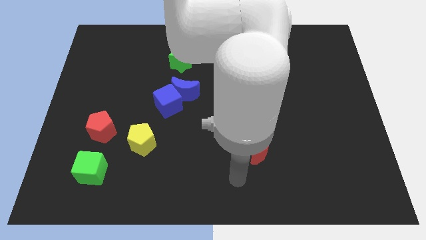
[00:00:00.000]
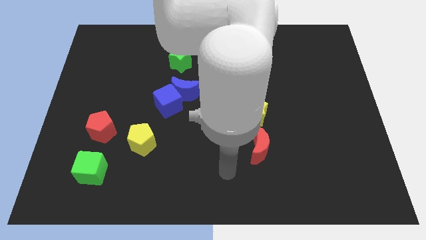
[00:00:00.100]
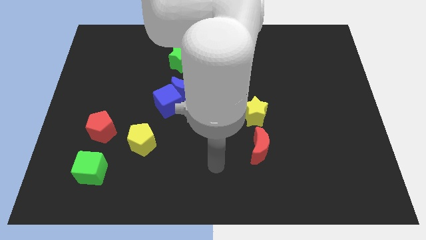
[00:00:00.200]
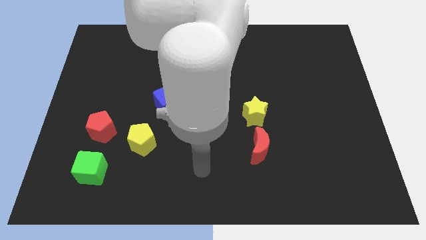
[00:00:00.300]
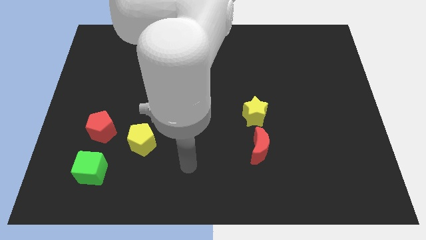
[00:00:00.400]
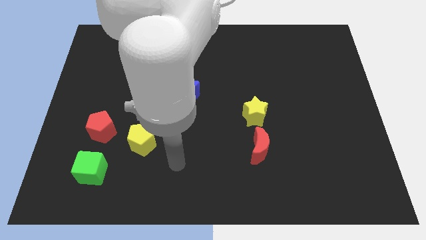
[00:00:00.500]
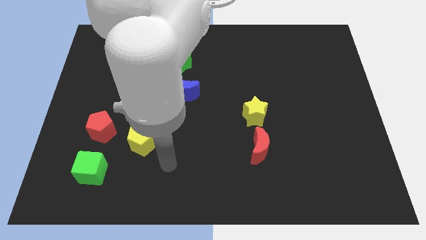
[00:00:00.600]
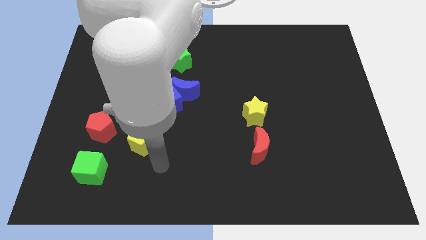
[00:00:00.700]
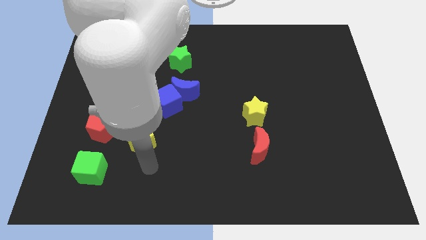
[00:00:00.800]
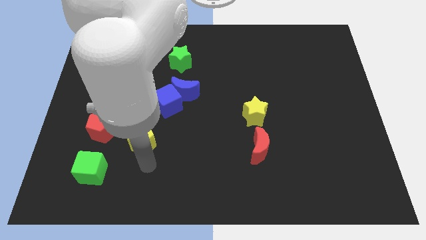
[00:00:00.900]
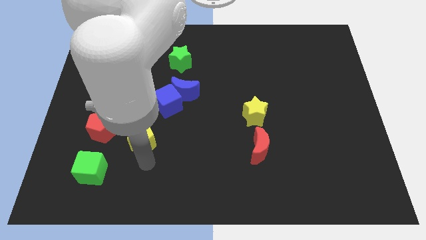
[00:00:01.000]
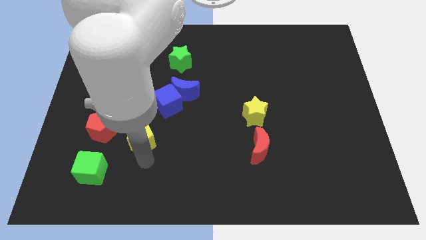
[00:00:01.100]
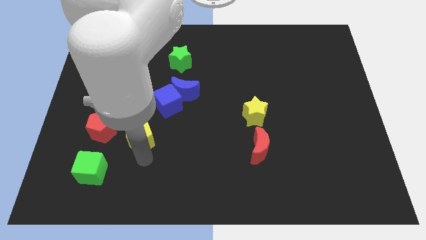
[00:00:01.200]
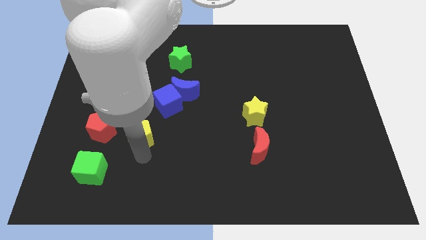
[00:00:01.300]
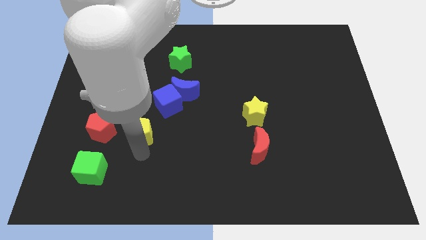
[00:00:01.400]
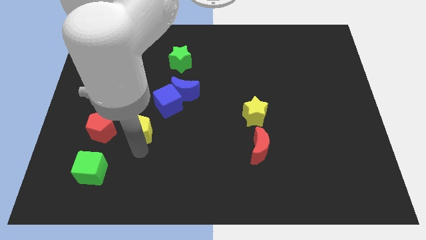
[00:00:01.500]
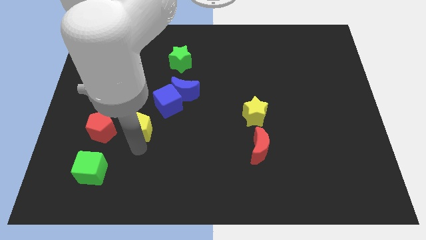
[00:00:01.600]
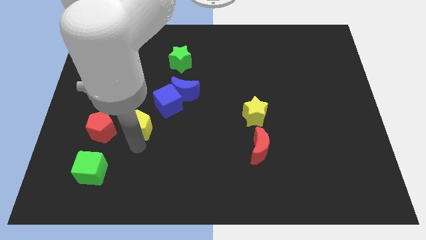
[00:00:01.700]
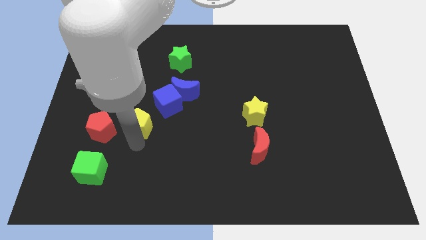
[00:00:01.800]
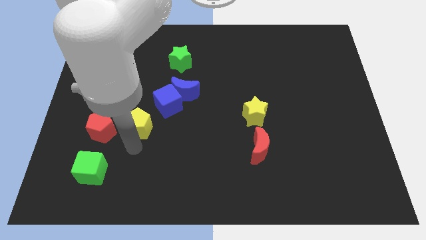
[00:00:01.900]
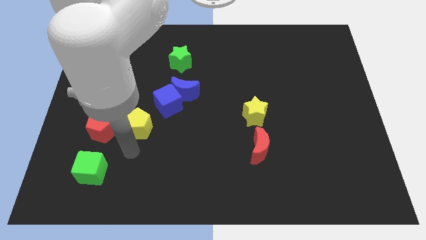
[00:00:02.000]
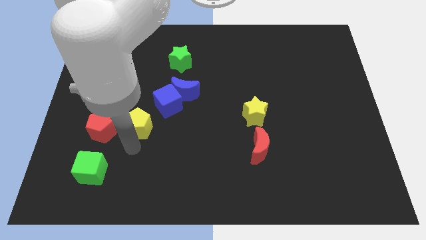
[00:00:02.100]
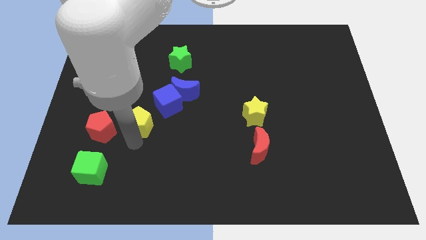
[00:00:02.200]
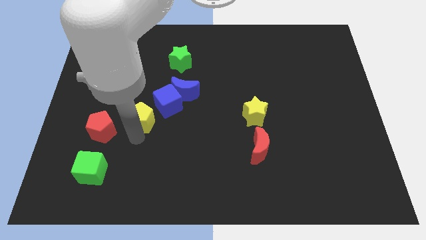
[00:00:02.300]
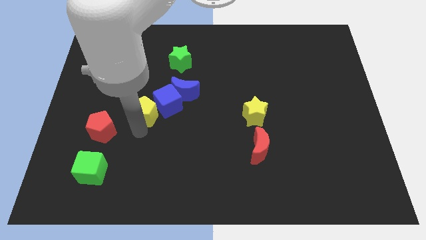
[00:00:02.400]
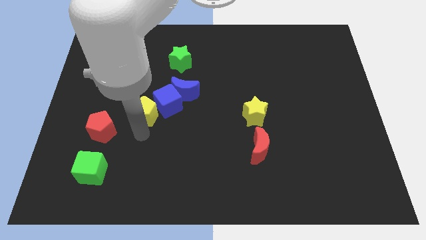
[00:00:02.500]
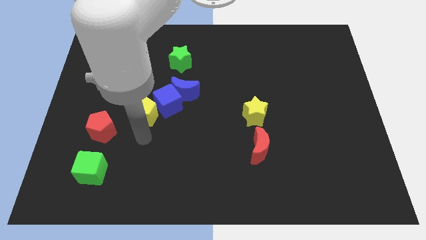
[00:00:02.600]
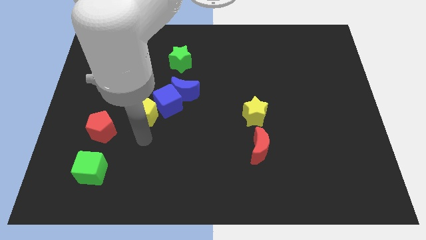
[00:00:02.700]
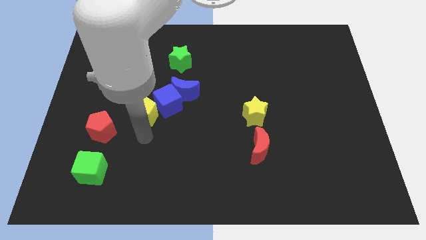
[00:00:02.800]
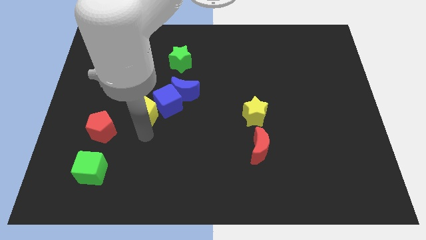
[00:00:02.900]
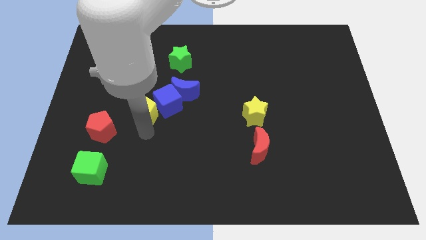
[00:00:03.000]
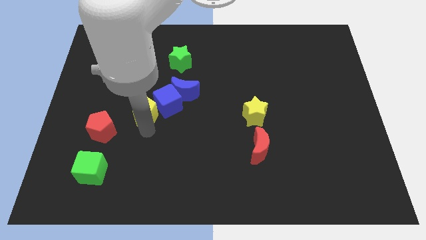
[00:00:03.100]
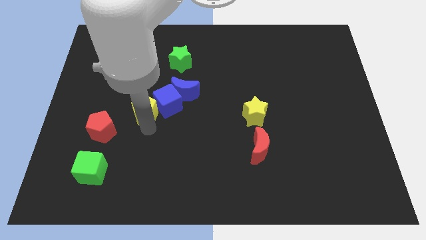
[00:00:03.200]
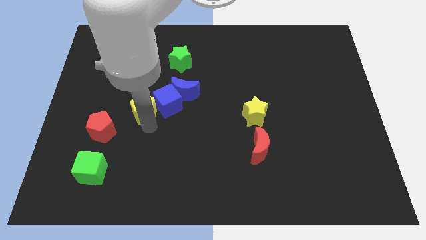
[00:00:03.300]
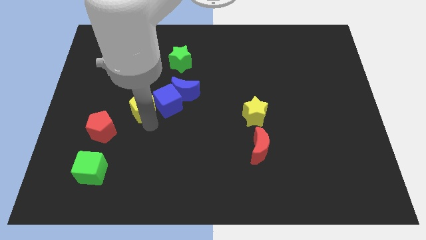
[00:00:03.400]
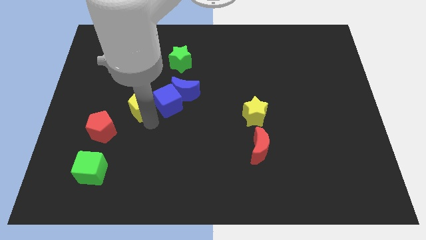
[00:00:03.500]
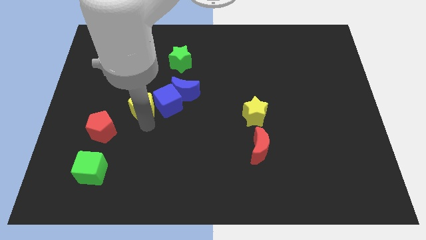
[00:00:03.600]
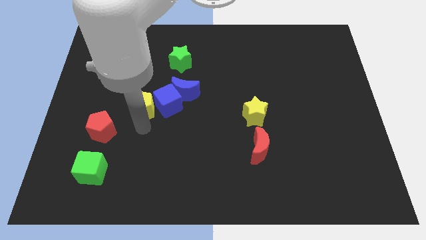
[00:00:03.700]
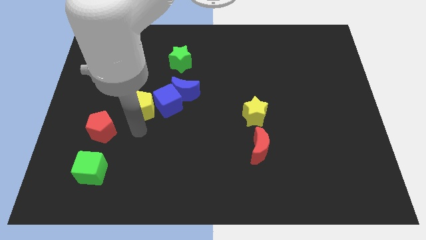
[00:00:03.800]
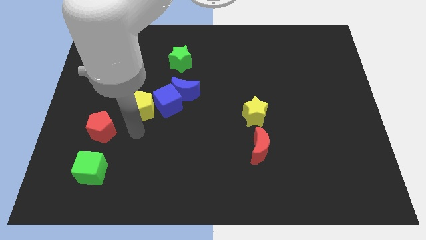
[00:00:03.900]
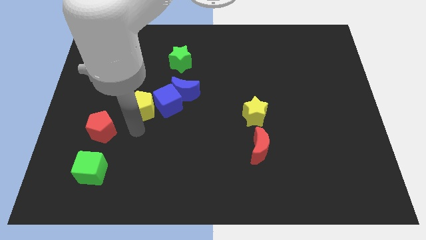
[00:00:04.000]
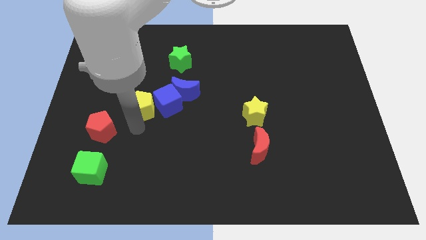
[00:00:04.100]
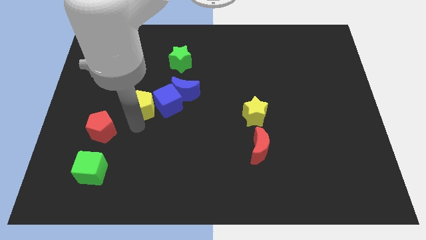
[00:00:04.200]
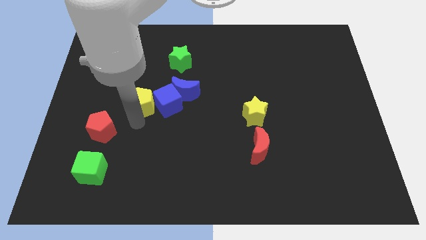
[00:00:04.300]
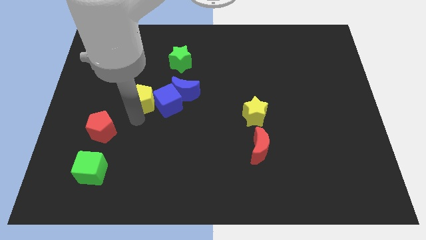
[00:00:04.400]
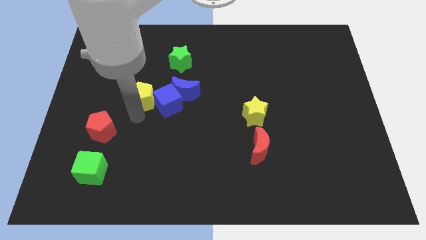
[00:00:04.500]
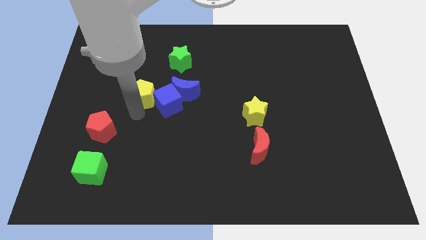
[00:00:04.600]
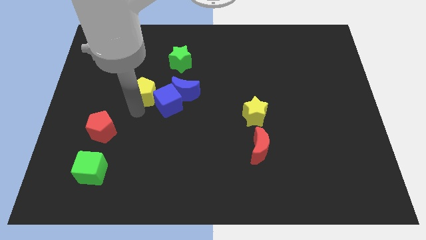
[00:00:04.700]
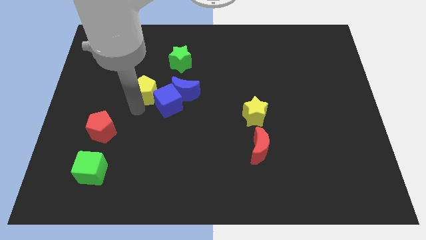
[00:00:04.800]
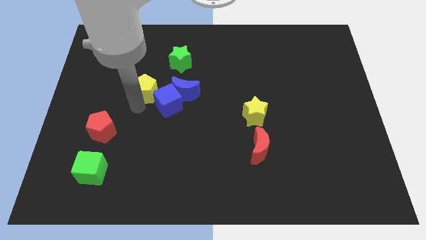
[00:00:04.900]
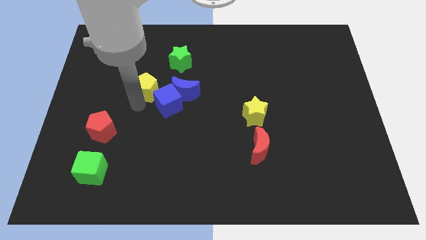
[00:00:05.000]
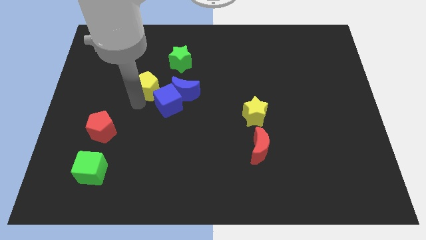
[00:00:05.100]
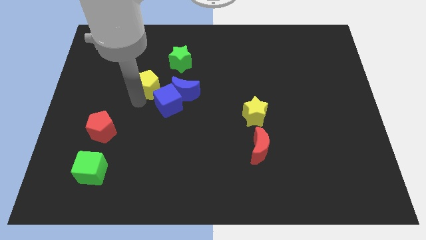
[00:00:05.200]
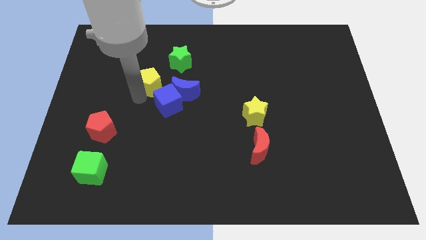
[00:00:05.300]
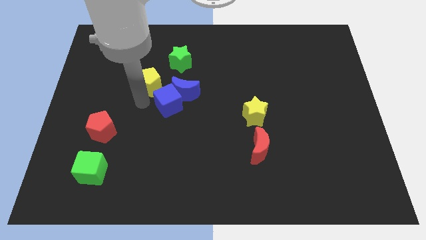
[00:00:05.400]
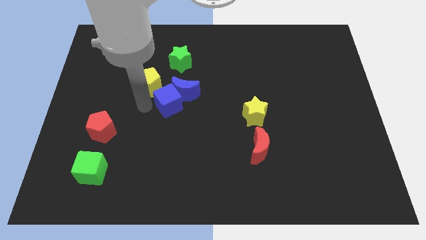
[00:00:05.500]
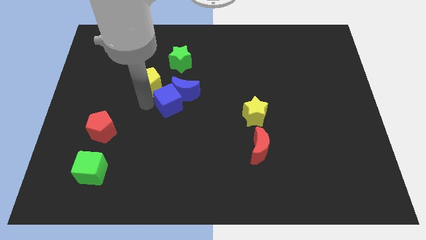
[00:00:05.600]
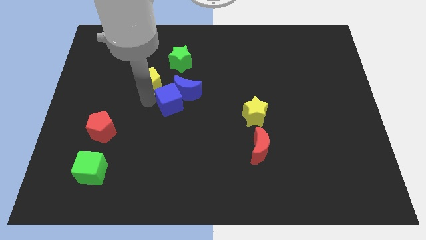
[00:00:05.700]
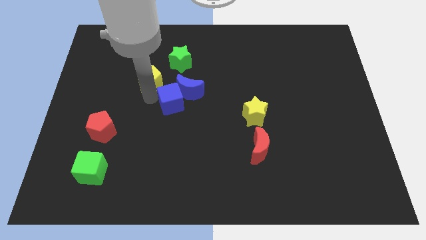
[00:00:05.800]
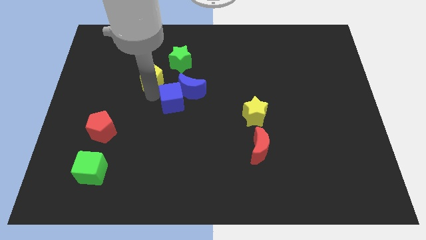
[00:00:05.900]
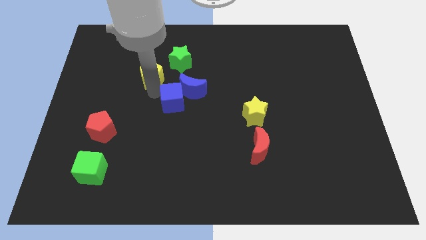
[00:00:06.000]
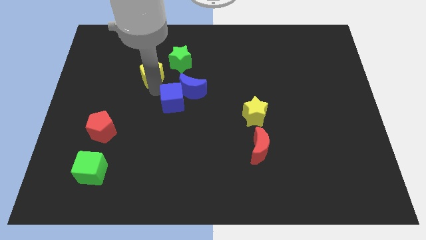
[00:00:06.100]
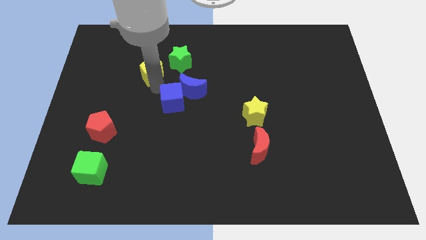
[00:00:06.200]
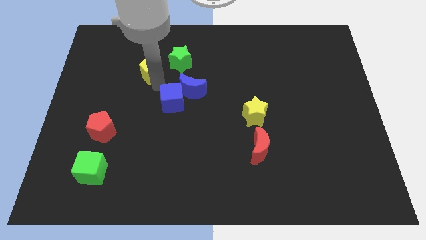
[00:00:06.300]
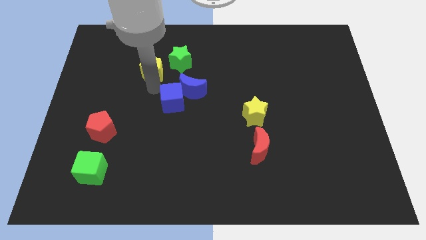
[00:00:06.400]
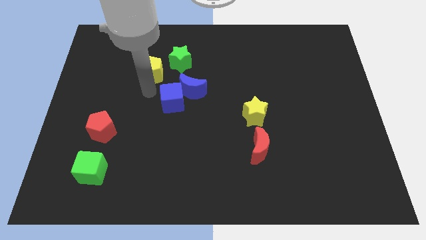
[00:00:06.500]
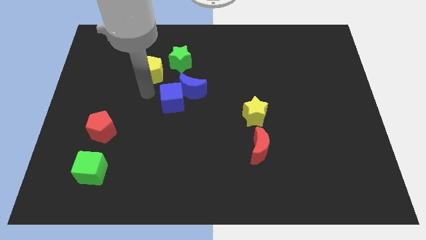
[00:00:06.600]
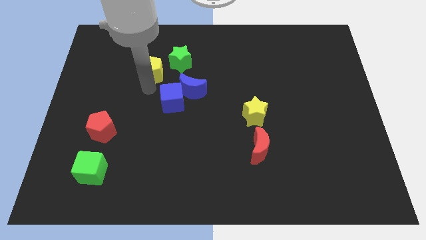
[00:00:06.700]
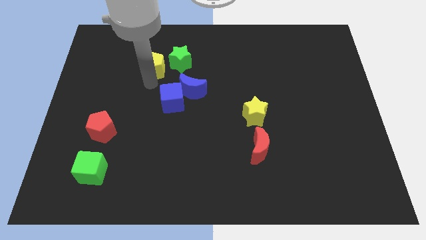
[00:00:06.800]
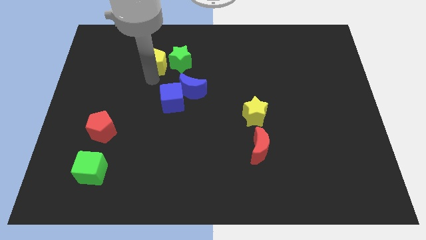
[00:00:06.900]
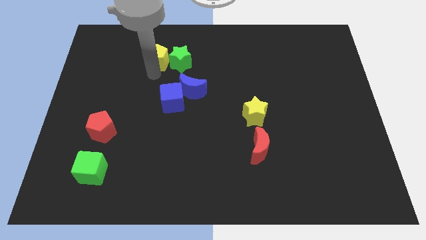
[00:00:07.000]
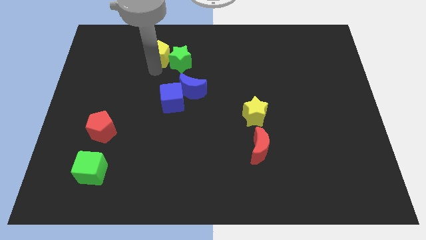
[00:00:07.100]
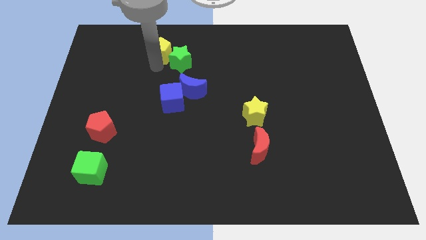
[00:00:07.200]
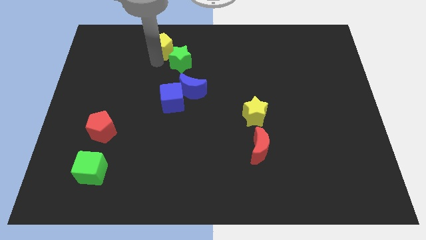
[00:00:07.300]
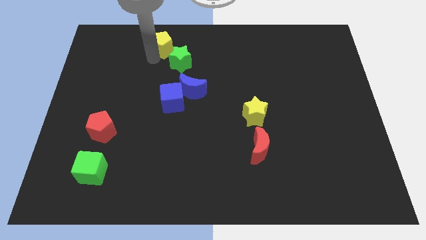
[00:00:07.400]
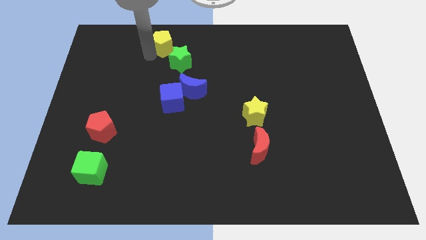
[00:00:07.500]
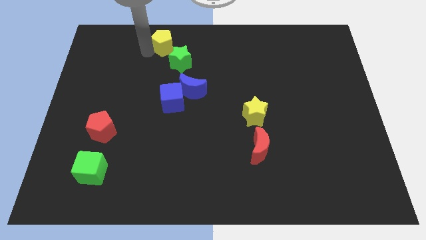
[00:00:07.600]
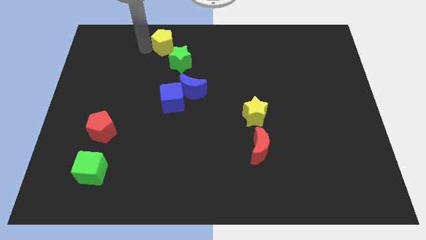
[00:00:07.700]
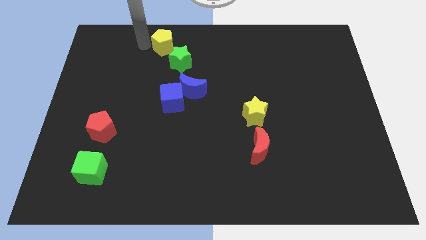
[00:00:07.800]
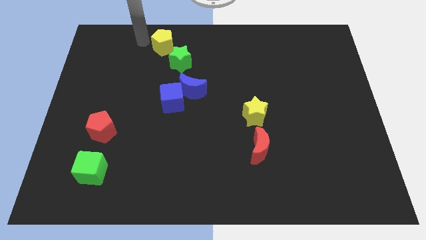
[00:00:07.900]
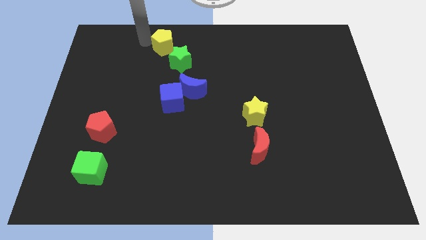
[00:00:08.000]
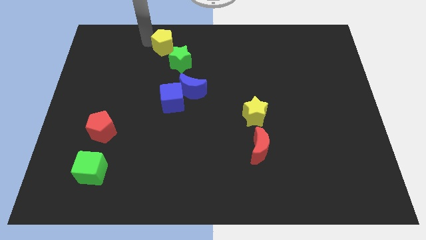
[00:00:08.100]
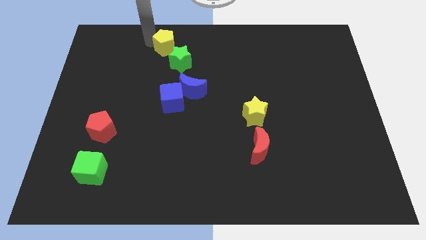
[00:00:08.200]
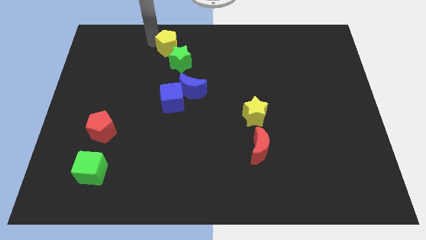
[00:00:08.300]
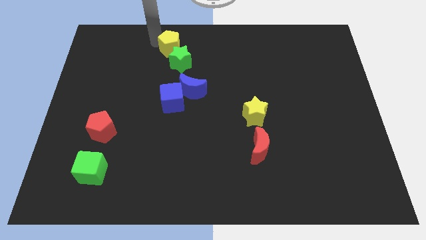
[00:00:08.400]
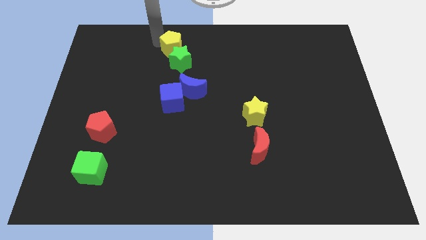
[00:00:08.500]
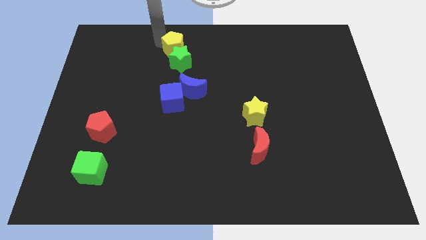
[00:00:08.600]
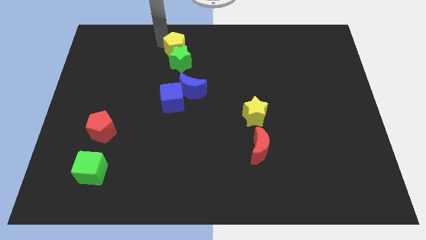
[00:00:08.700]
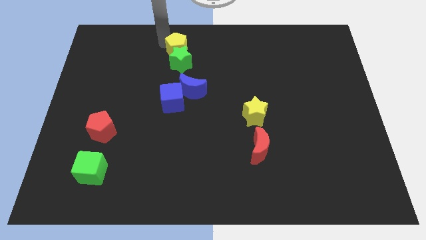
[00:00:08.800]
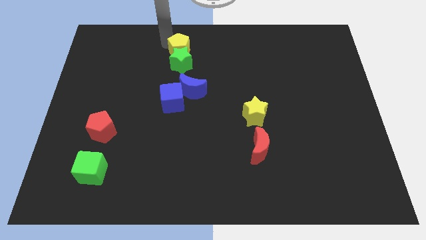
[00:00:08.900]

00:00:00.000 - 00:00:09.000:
put the yellow pentagon above the blue moon
